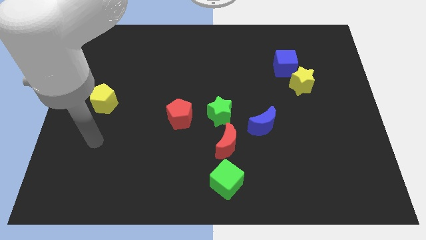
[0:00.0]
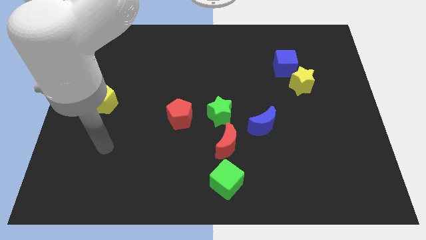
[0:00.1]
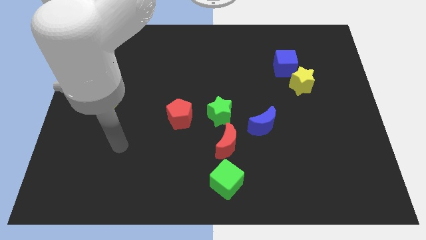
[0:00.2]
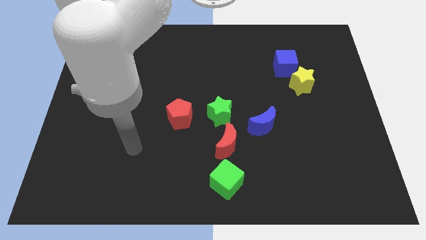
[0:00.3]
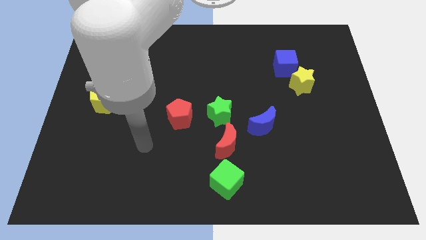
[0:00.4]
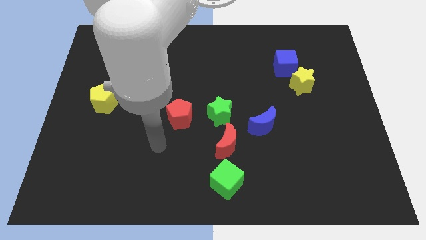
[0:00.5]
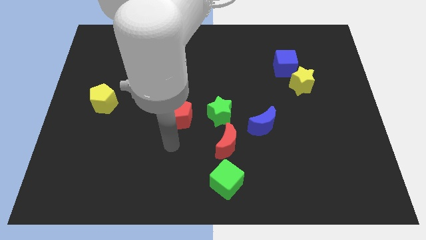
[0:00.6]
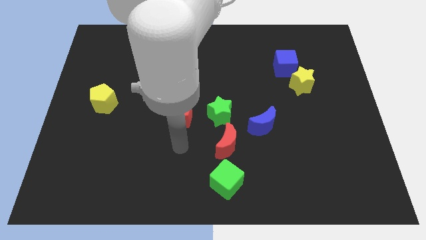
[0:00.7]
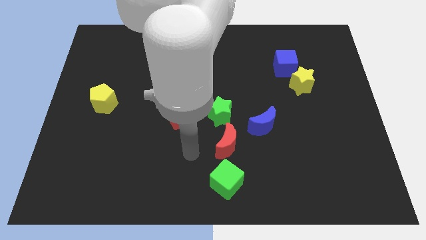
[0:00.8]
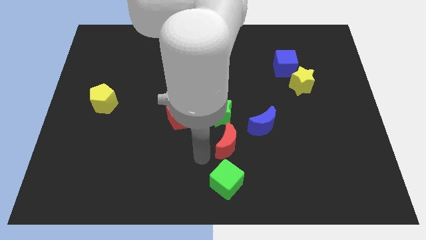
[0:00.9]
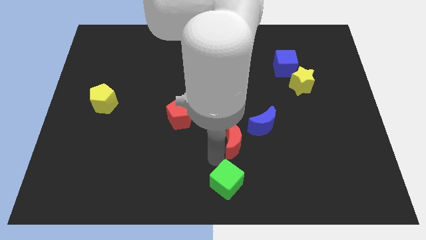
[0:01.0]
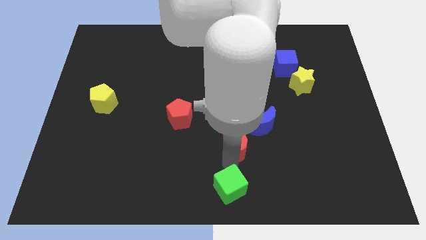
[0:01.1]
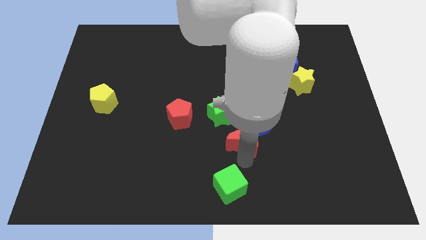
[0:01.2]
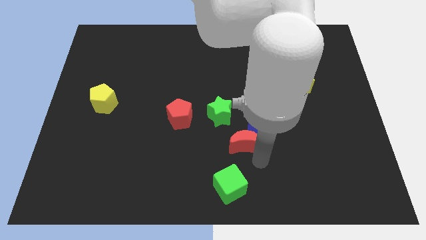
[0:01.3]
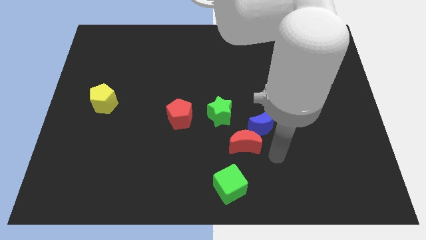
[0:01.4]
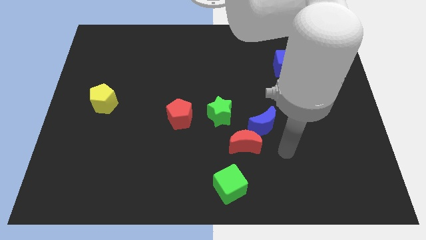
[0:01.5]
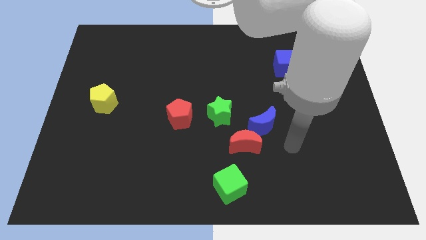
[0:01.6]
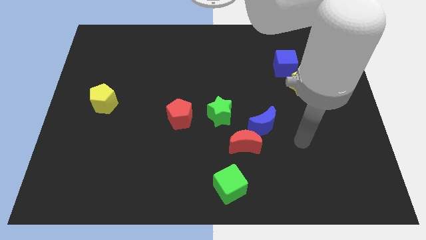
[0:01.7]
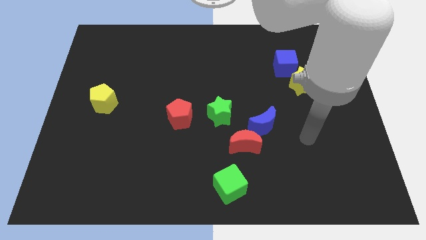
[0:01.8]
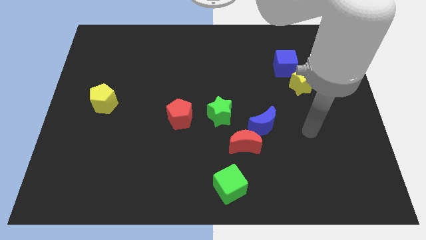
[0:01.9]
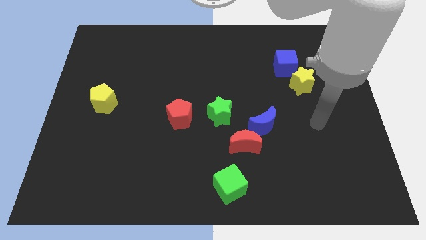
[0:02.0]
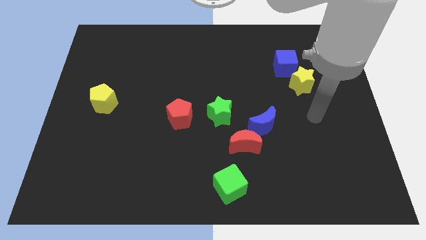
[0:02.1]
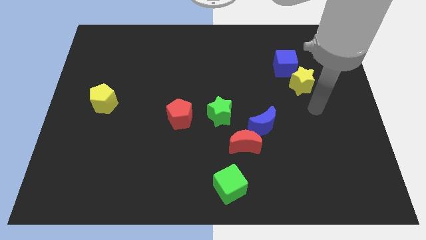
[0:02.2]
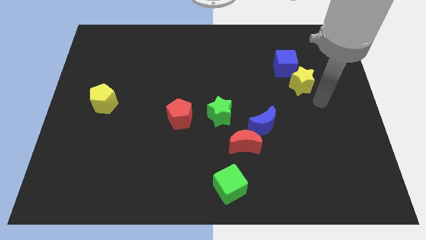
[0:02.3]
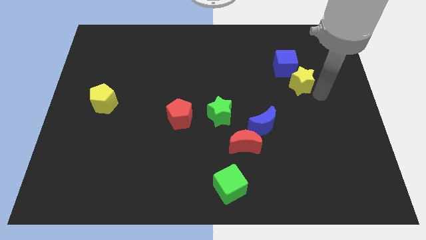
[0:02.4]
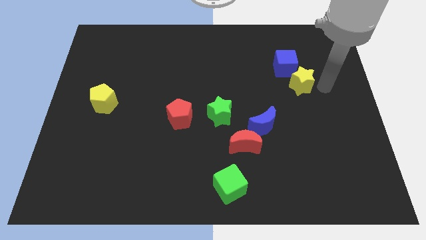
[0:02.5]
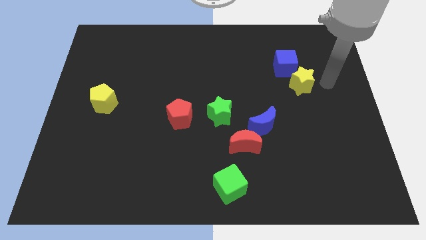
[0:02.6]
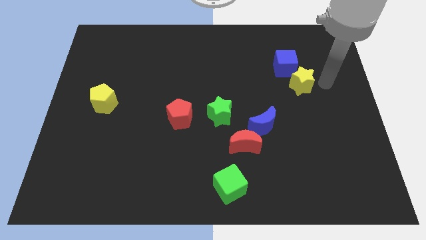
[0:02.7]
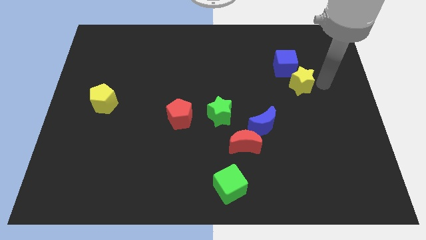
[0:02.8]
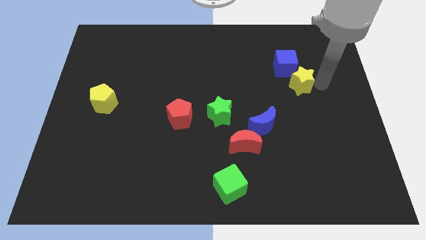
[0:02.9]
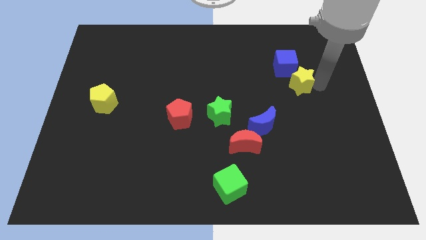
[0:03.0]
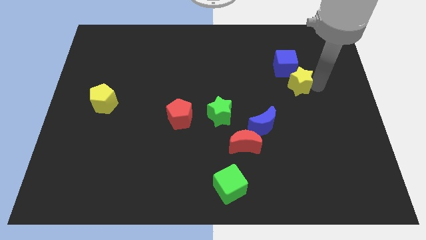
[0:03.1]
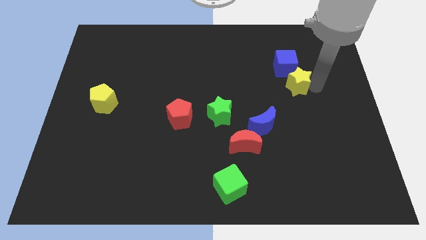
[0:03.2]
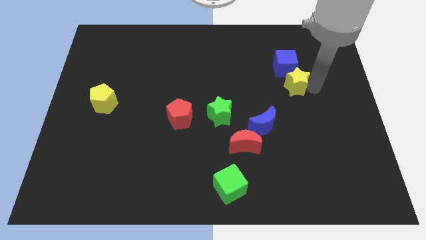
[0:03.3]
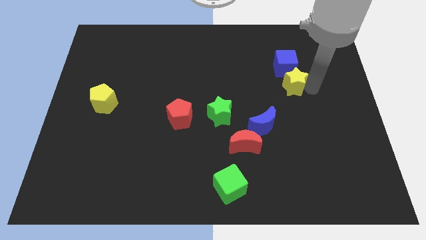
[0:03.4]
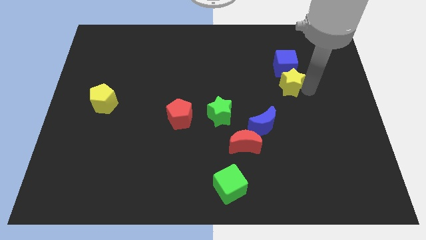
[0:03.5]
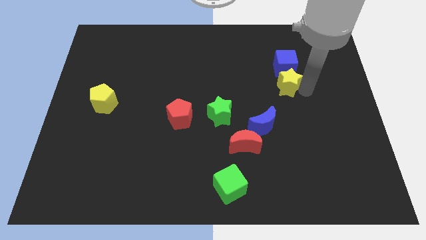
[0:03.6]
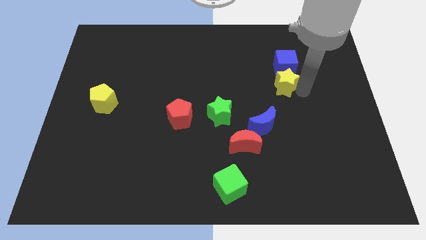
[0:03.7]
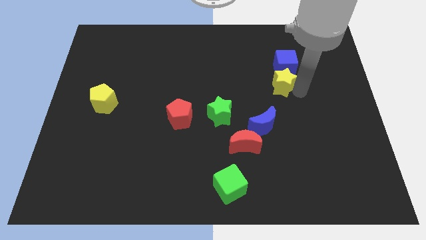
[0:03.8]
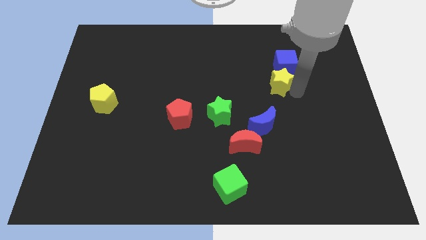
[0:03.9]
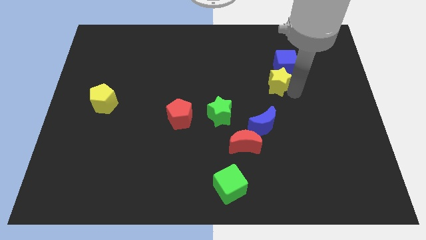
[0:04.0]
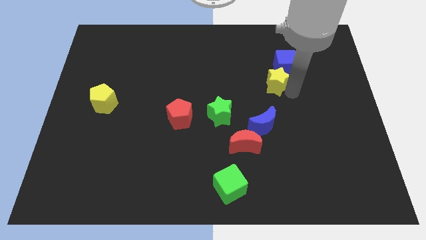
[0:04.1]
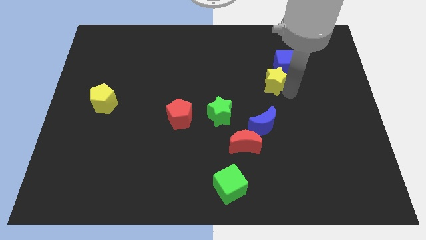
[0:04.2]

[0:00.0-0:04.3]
slightly slide the yellow star left

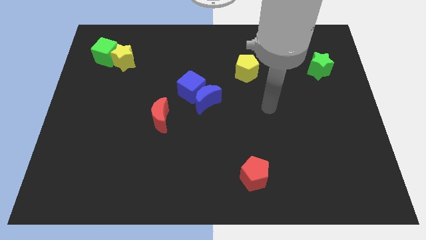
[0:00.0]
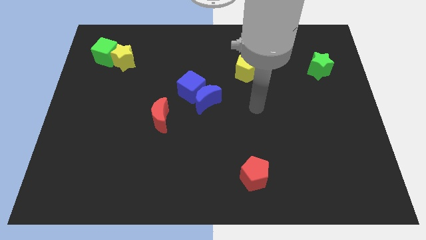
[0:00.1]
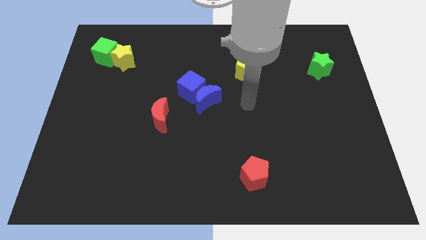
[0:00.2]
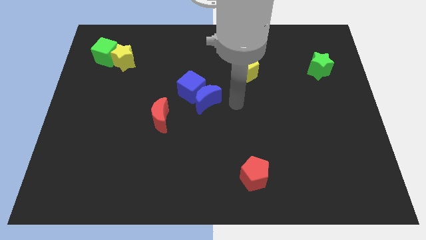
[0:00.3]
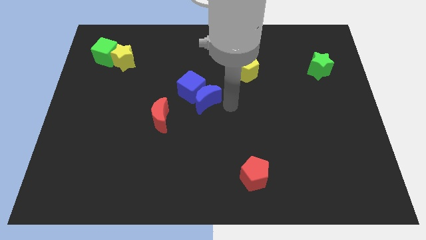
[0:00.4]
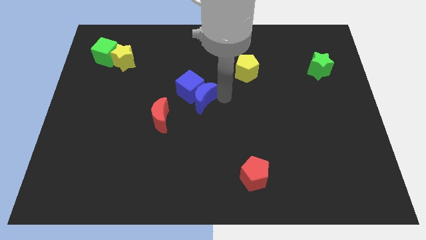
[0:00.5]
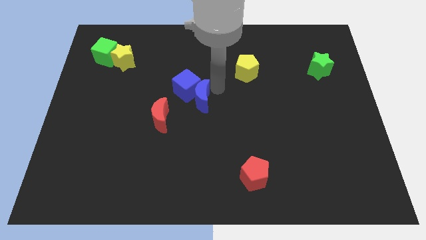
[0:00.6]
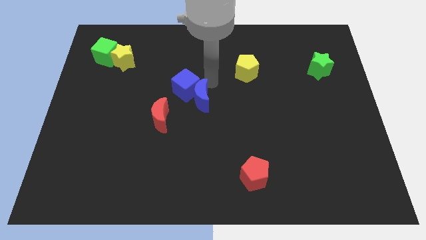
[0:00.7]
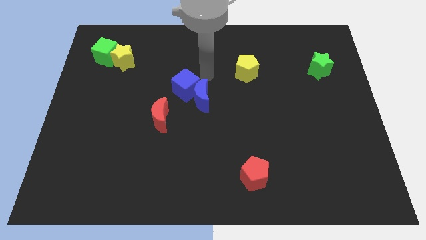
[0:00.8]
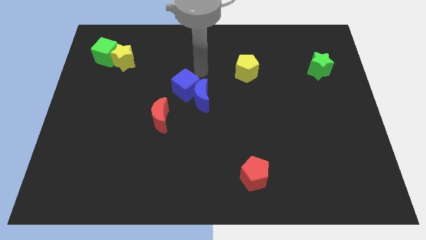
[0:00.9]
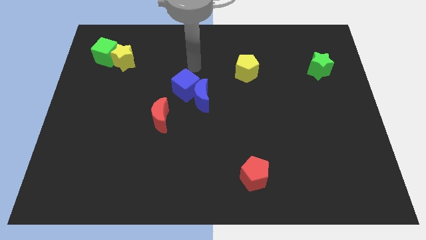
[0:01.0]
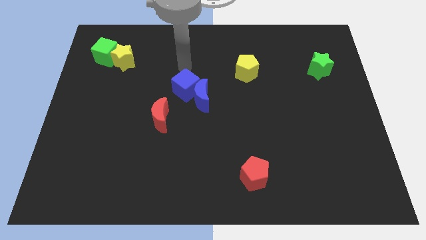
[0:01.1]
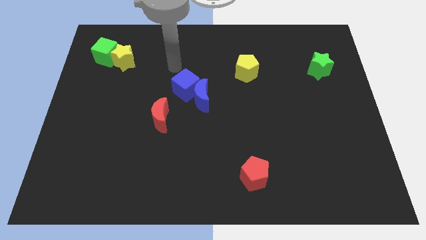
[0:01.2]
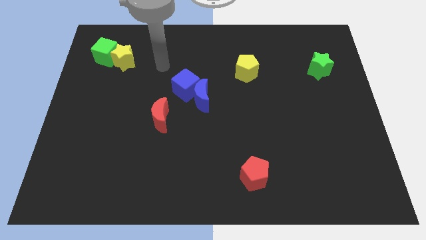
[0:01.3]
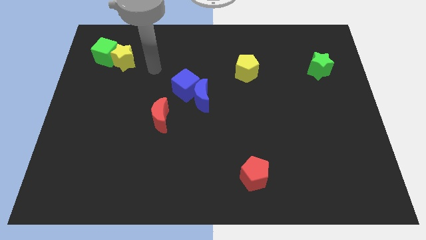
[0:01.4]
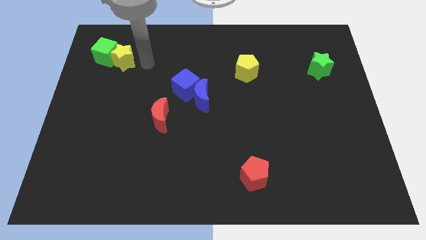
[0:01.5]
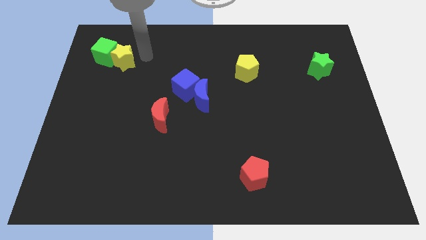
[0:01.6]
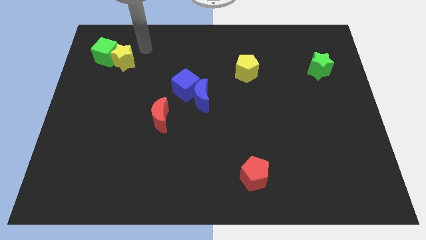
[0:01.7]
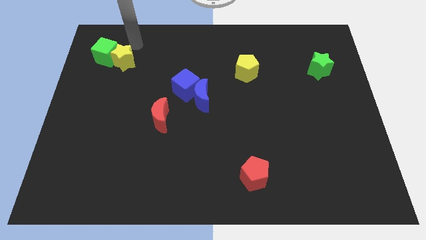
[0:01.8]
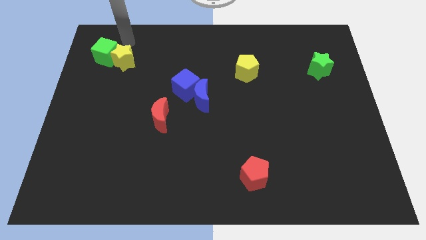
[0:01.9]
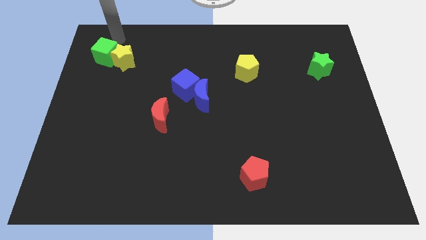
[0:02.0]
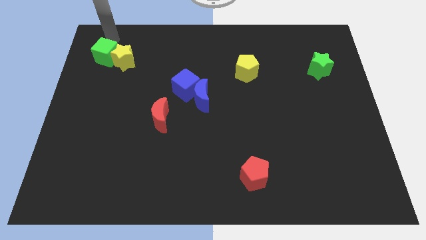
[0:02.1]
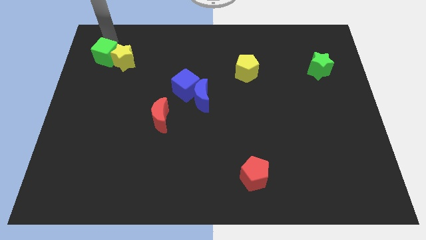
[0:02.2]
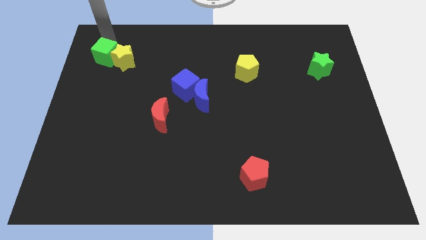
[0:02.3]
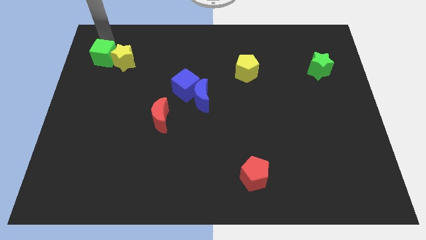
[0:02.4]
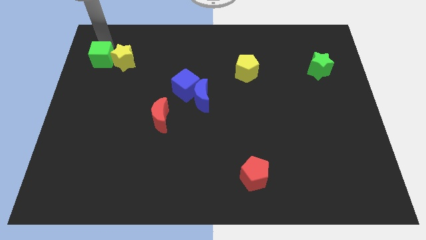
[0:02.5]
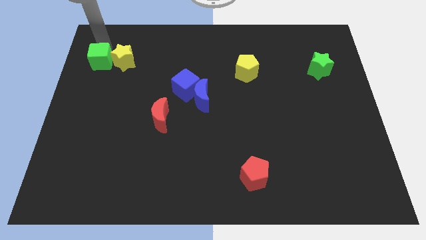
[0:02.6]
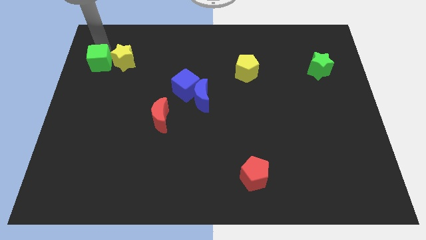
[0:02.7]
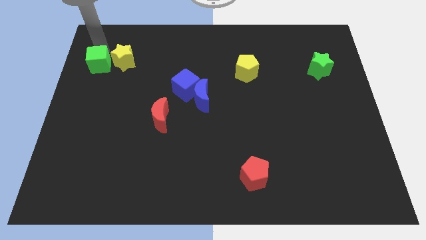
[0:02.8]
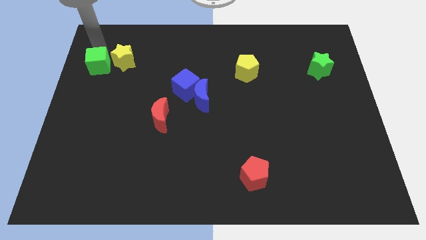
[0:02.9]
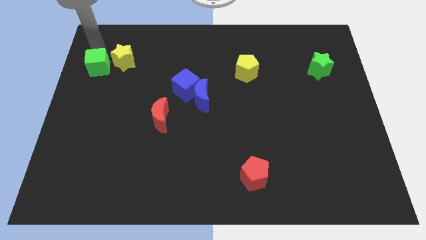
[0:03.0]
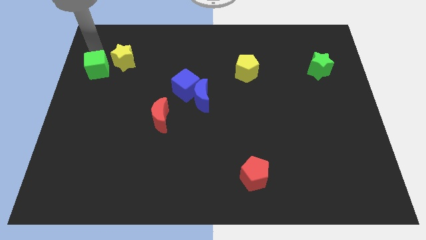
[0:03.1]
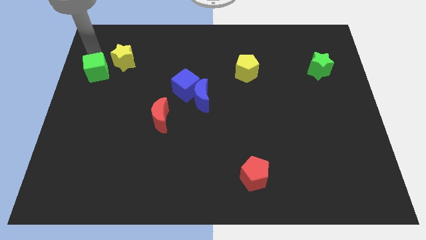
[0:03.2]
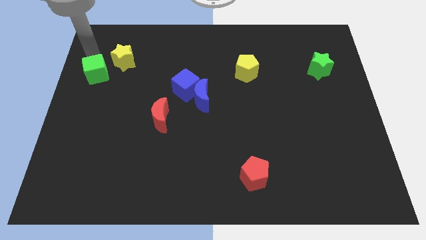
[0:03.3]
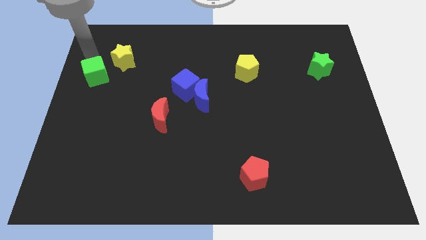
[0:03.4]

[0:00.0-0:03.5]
slightly slide the green cube downwards

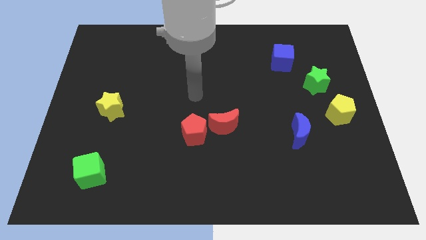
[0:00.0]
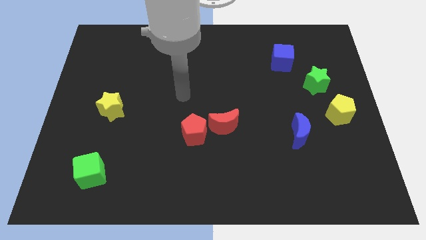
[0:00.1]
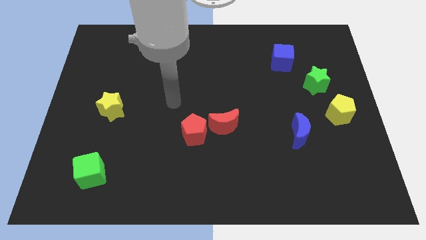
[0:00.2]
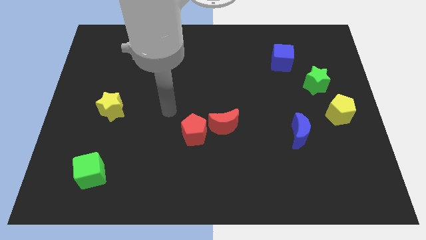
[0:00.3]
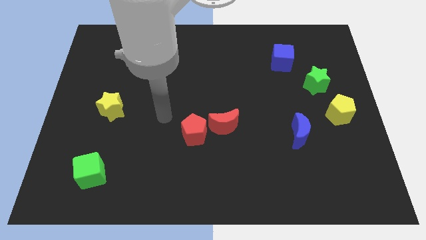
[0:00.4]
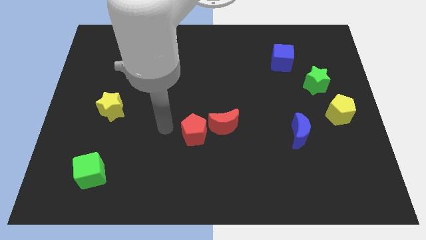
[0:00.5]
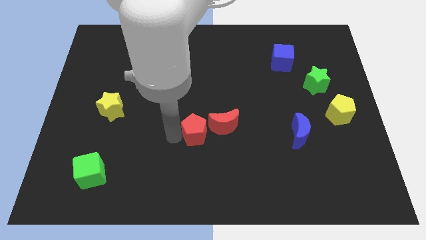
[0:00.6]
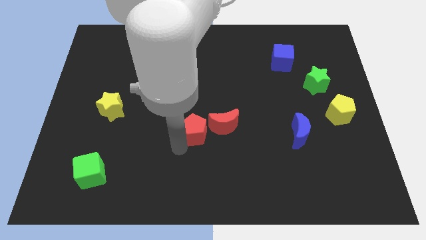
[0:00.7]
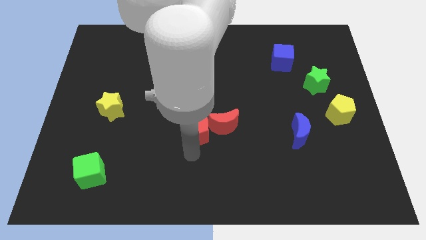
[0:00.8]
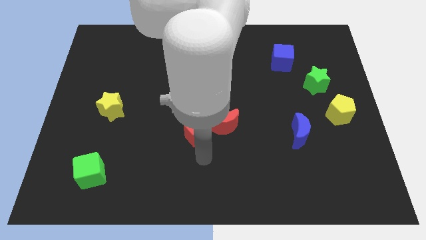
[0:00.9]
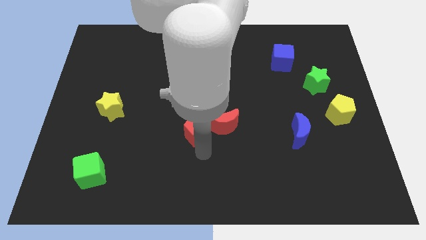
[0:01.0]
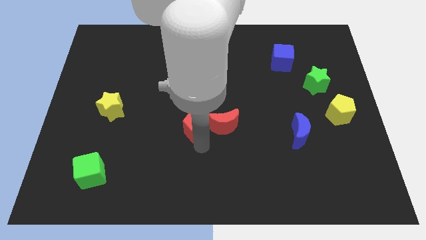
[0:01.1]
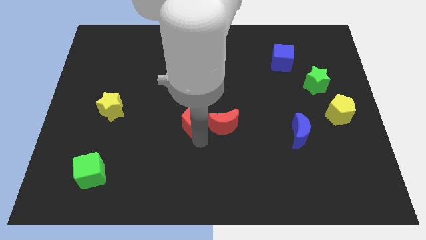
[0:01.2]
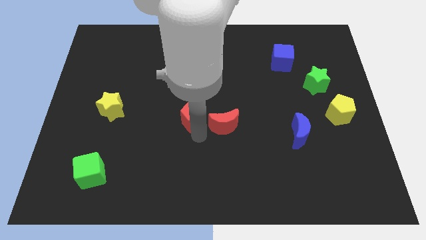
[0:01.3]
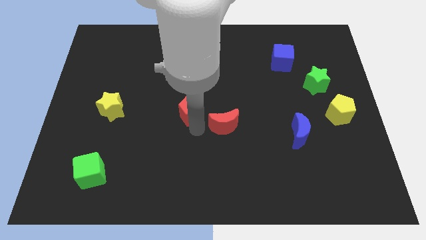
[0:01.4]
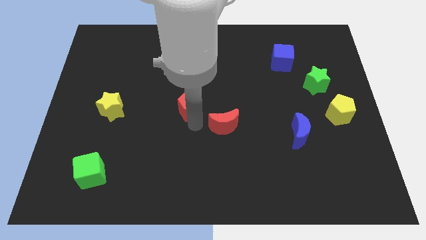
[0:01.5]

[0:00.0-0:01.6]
slightly slide the red pentagon up
